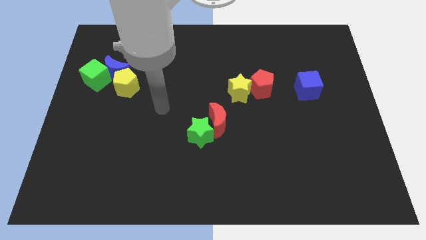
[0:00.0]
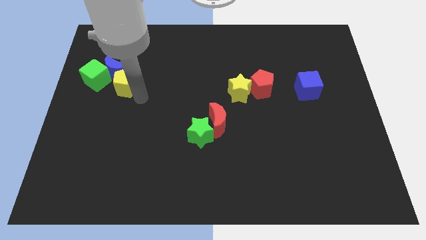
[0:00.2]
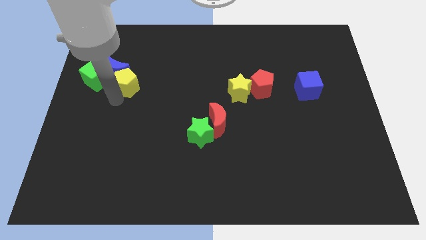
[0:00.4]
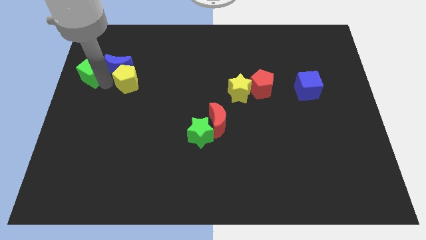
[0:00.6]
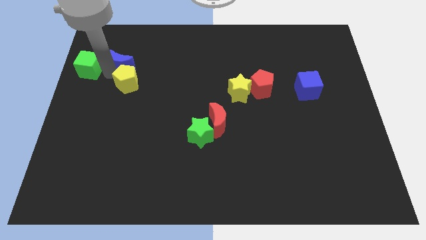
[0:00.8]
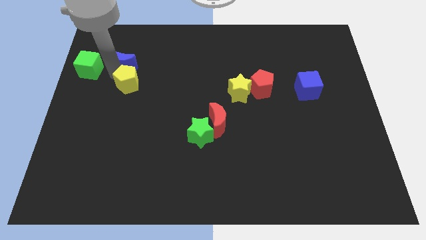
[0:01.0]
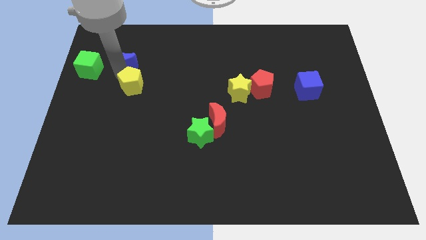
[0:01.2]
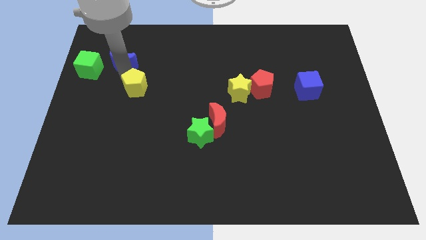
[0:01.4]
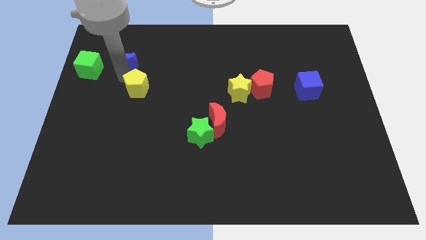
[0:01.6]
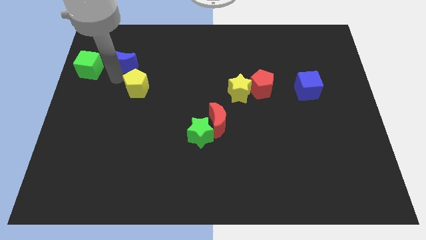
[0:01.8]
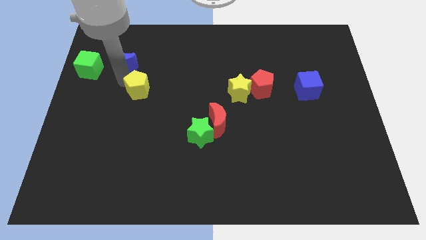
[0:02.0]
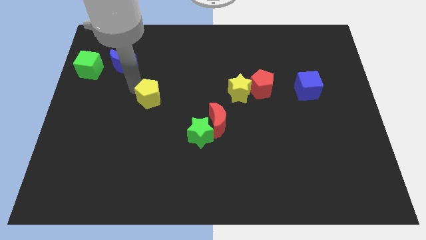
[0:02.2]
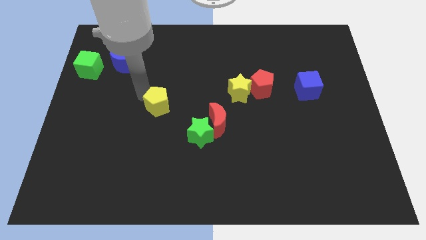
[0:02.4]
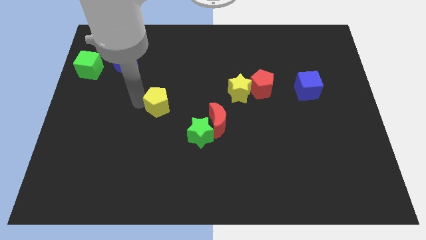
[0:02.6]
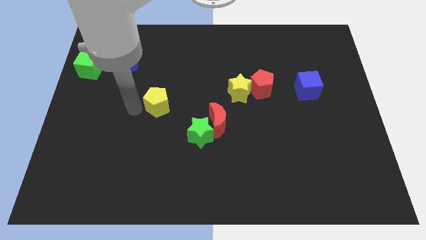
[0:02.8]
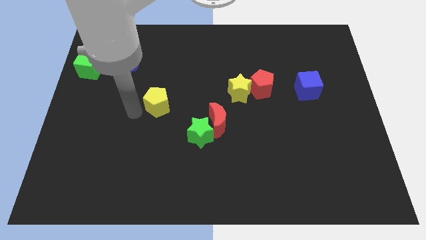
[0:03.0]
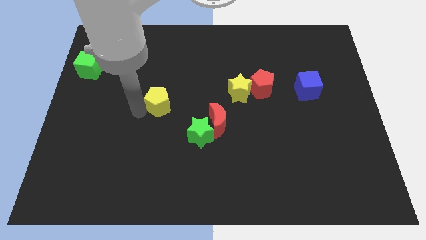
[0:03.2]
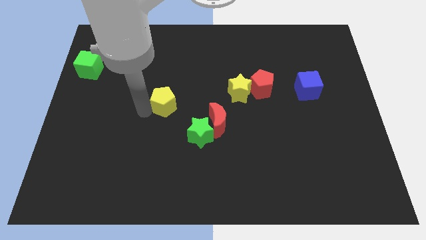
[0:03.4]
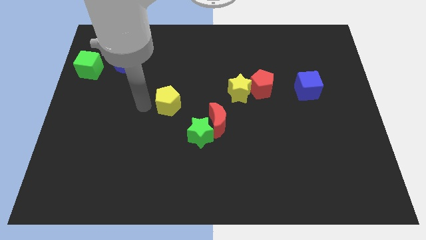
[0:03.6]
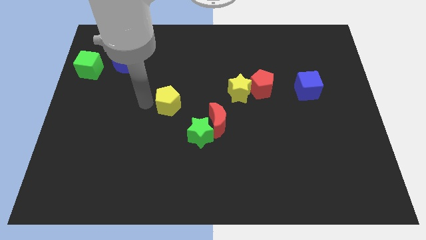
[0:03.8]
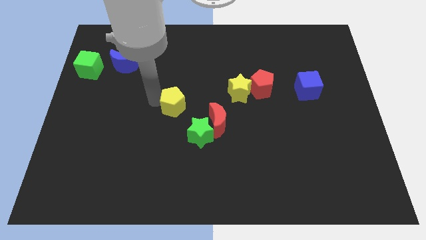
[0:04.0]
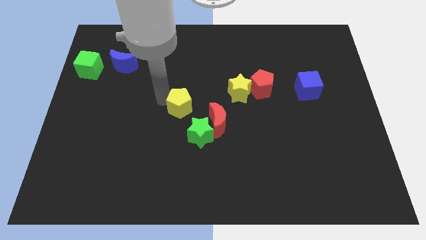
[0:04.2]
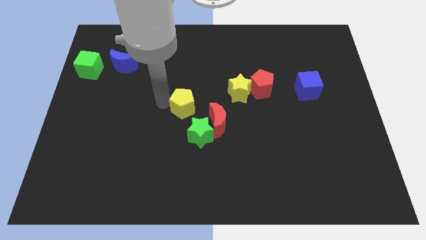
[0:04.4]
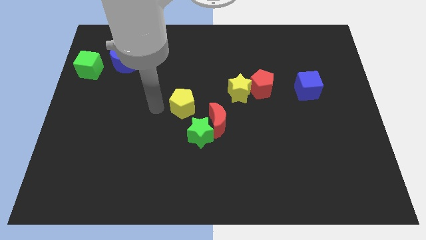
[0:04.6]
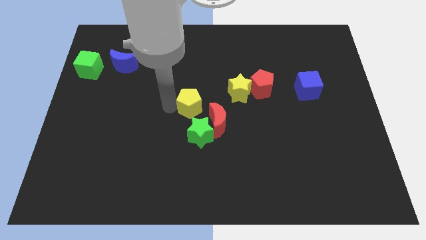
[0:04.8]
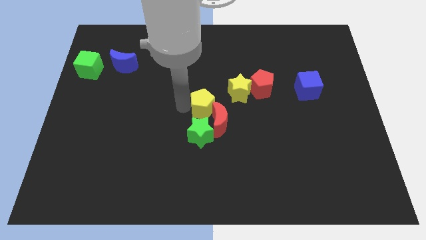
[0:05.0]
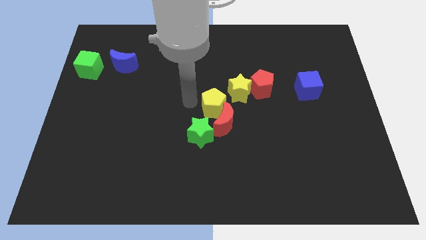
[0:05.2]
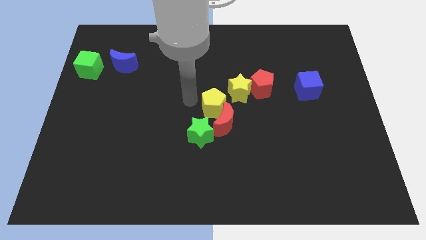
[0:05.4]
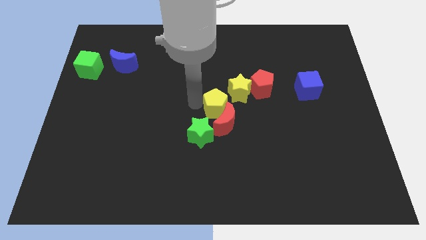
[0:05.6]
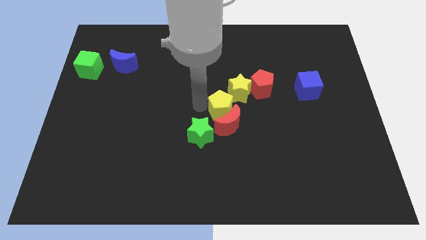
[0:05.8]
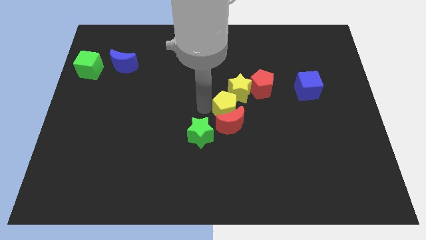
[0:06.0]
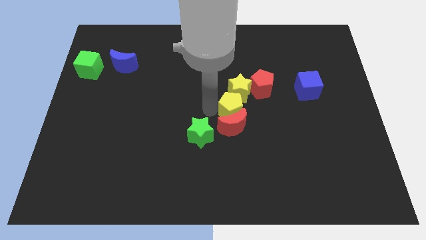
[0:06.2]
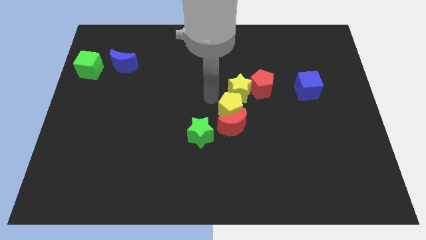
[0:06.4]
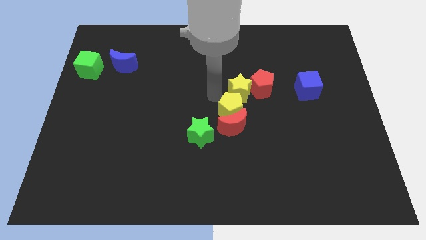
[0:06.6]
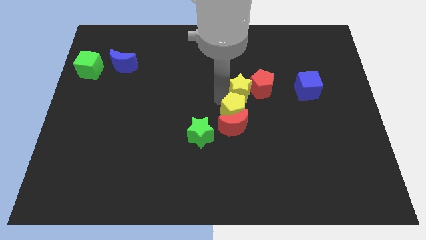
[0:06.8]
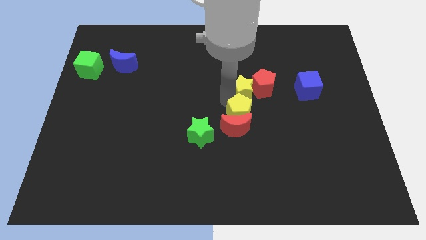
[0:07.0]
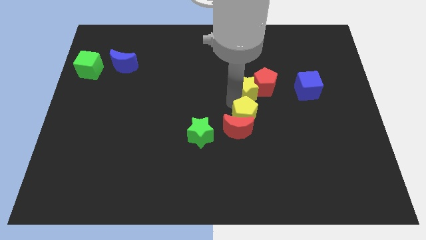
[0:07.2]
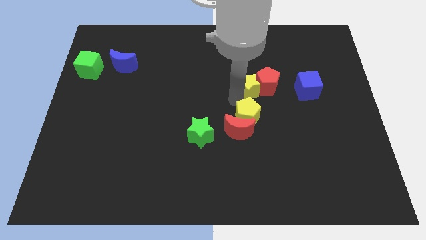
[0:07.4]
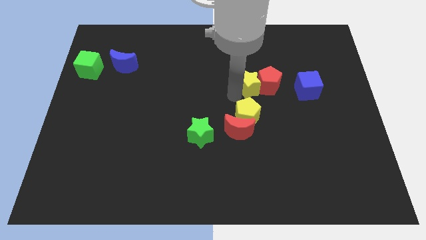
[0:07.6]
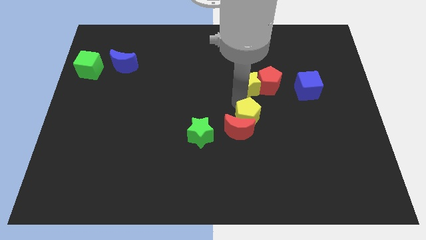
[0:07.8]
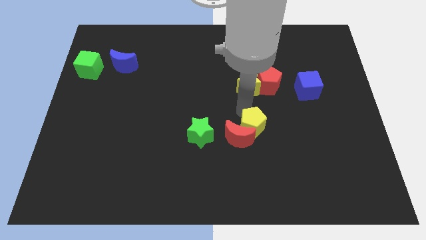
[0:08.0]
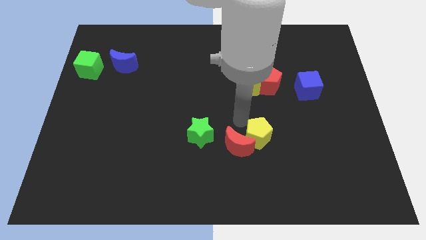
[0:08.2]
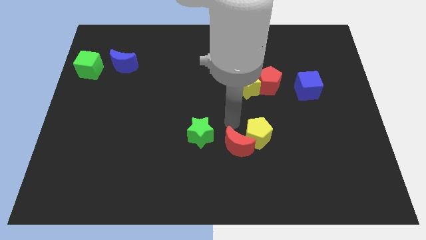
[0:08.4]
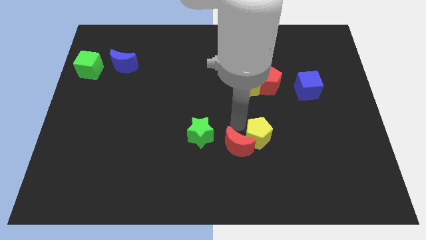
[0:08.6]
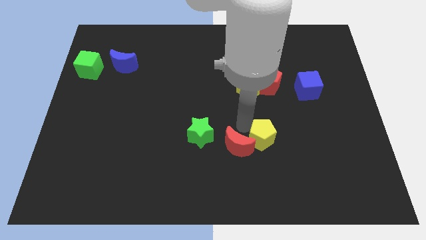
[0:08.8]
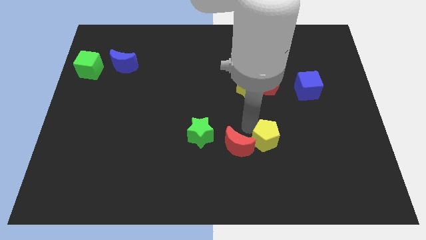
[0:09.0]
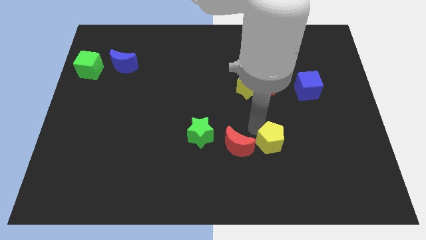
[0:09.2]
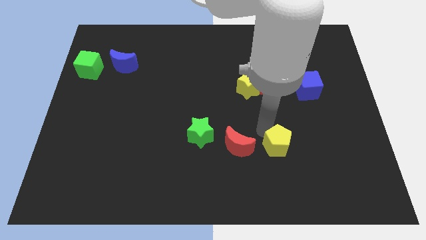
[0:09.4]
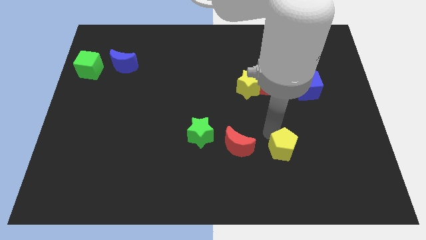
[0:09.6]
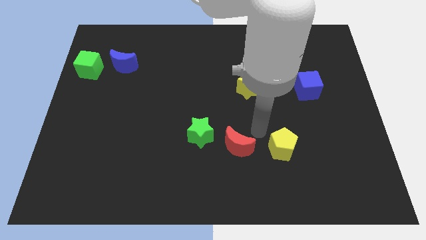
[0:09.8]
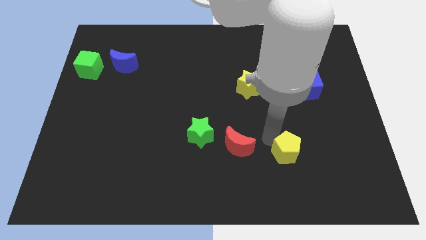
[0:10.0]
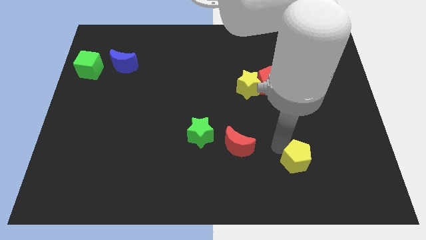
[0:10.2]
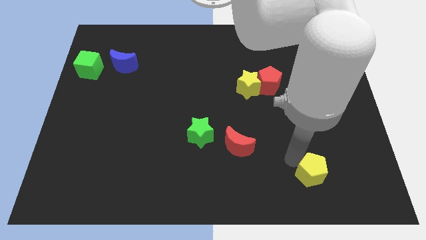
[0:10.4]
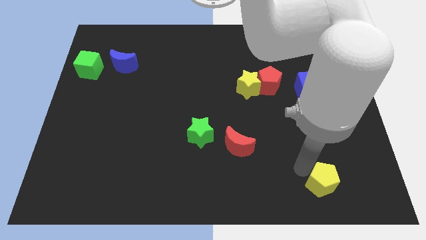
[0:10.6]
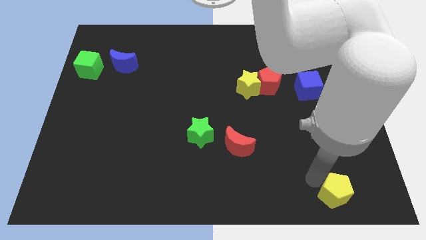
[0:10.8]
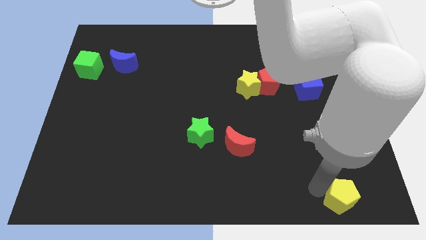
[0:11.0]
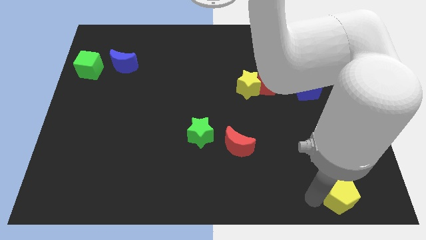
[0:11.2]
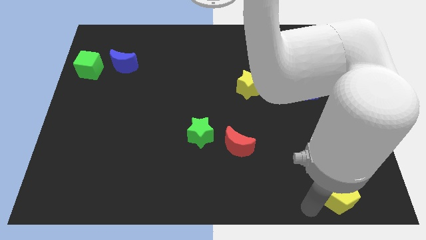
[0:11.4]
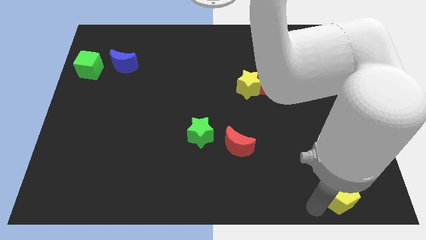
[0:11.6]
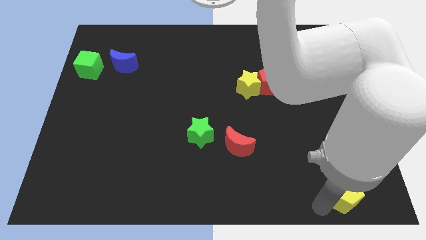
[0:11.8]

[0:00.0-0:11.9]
slide the yellow pentagon to the bottom right
